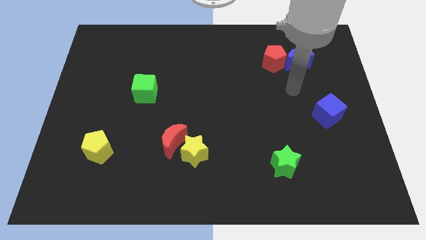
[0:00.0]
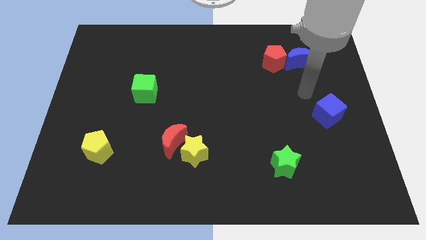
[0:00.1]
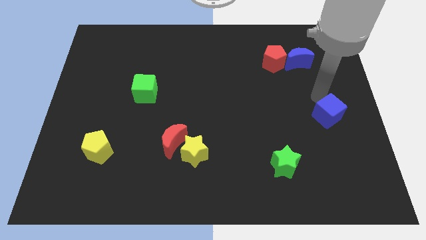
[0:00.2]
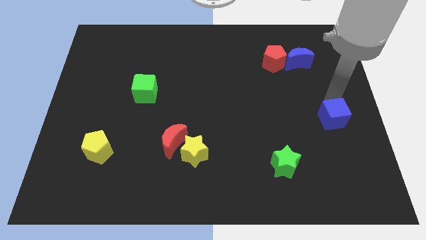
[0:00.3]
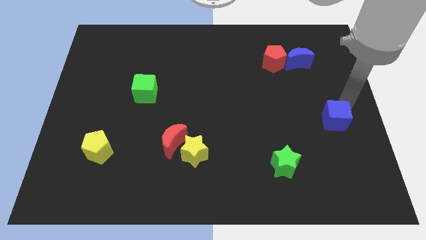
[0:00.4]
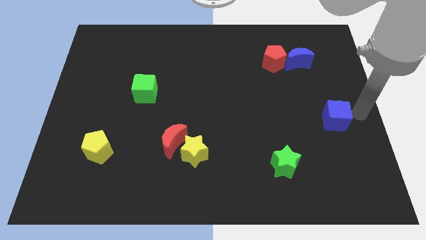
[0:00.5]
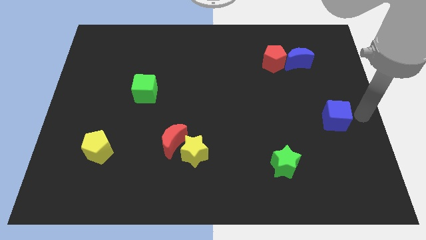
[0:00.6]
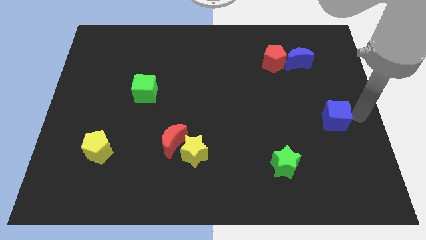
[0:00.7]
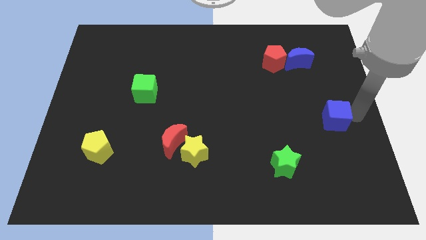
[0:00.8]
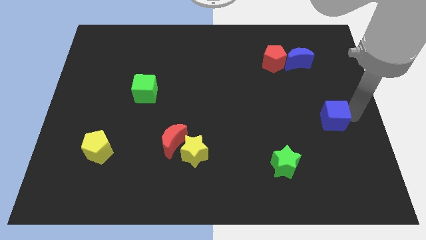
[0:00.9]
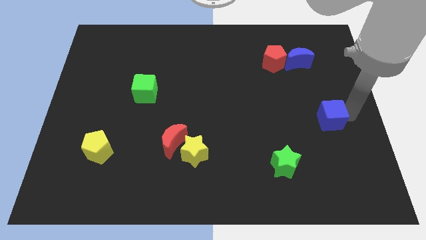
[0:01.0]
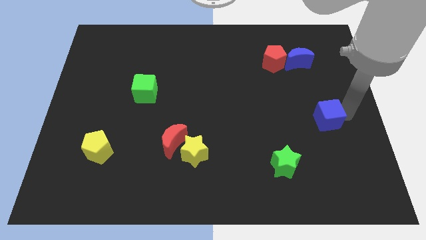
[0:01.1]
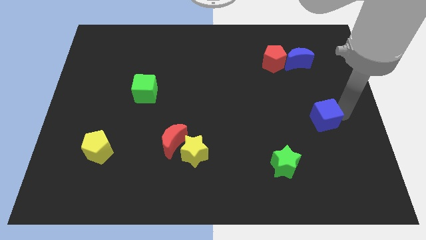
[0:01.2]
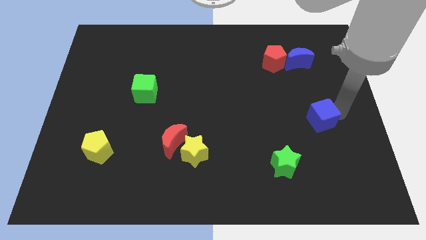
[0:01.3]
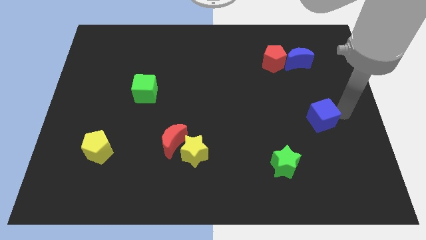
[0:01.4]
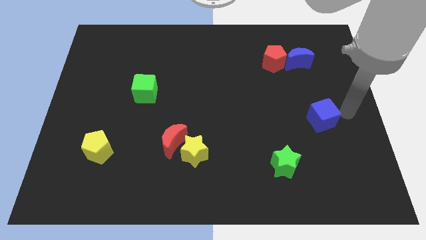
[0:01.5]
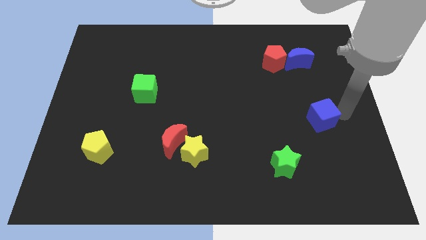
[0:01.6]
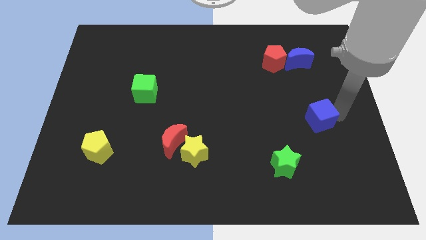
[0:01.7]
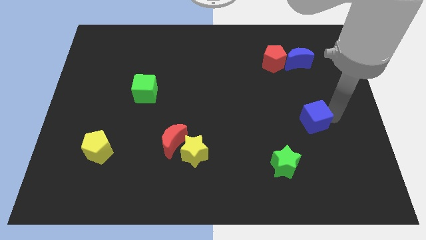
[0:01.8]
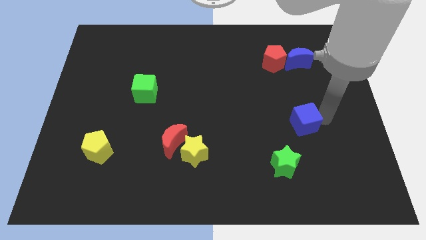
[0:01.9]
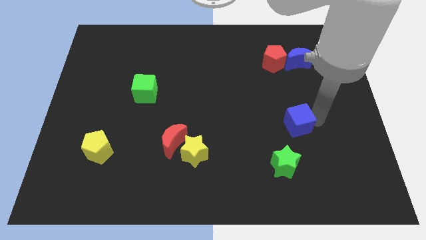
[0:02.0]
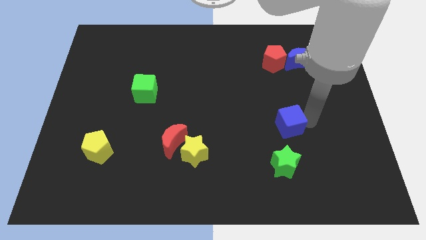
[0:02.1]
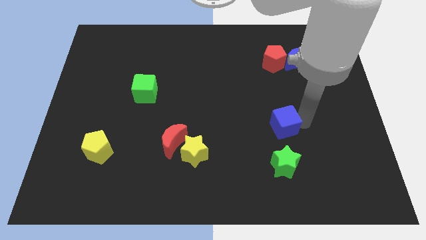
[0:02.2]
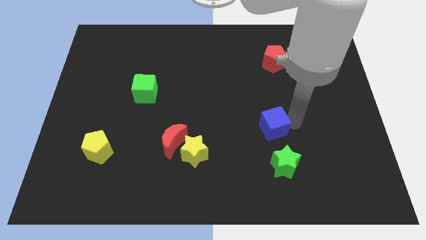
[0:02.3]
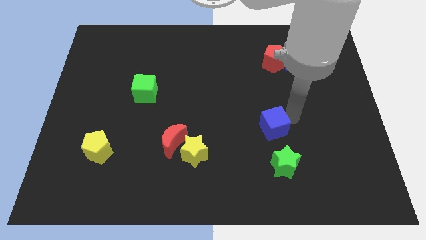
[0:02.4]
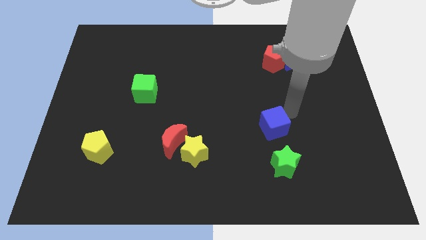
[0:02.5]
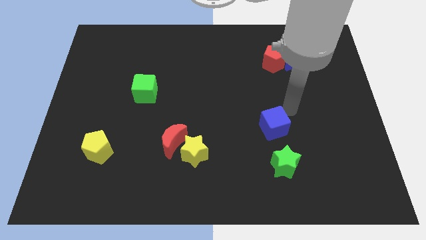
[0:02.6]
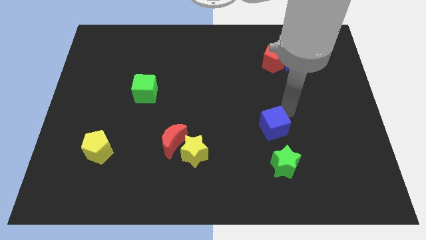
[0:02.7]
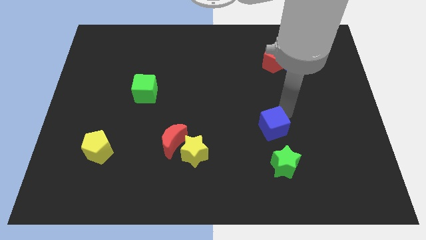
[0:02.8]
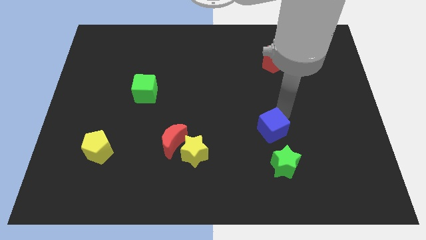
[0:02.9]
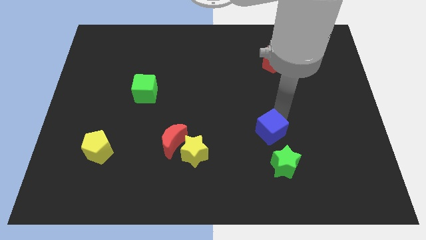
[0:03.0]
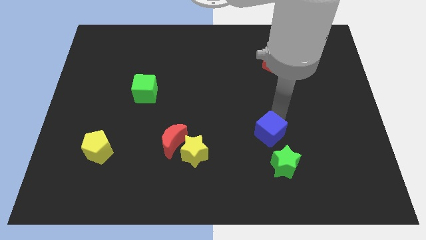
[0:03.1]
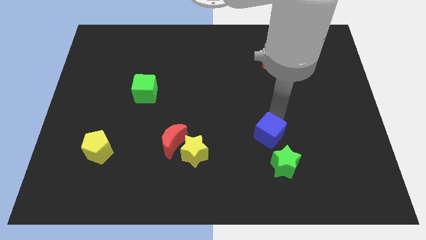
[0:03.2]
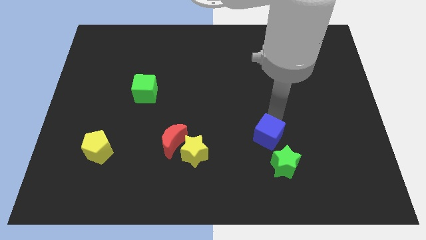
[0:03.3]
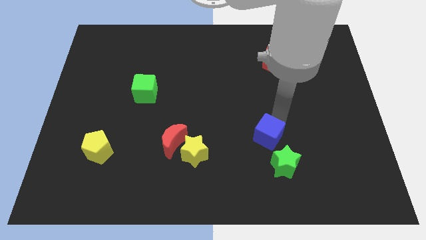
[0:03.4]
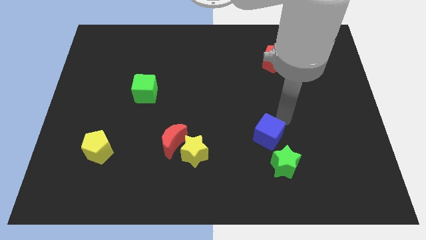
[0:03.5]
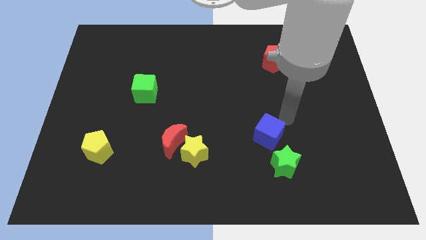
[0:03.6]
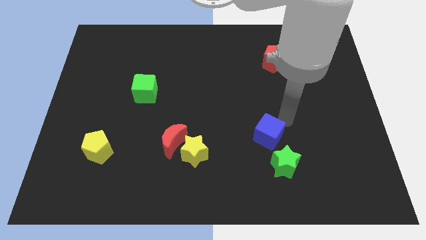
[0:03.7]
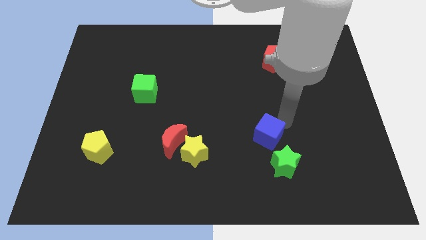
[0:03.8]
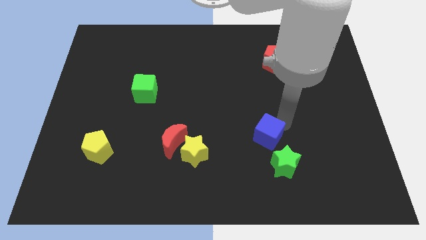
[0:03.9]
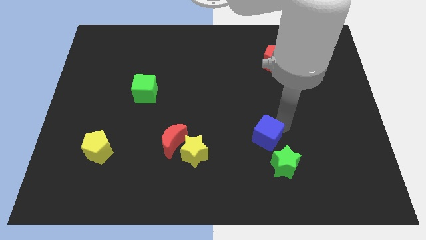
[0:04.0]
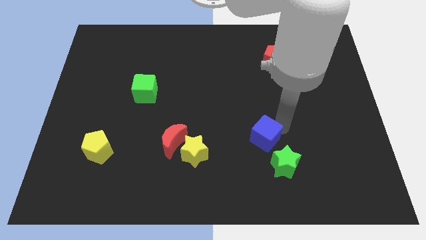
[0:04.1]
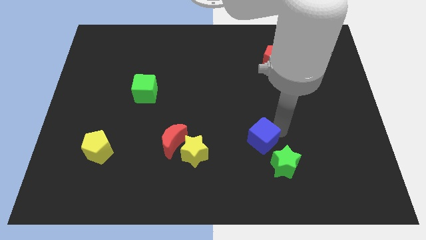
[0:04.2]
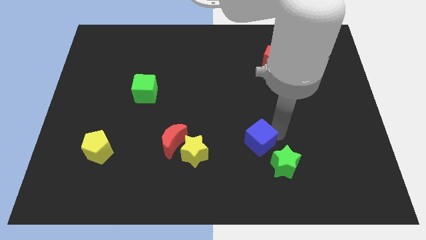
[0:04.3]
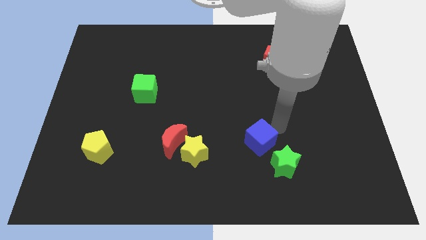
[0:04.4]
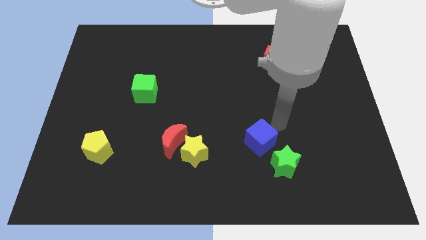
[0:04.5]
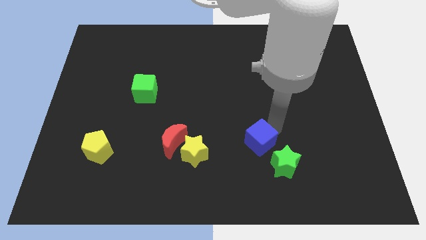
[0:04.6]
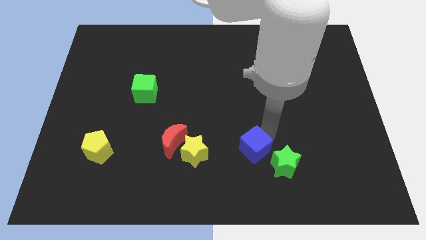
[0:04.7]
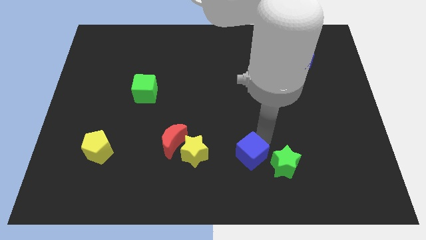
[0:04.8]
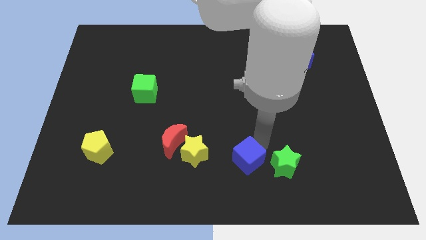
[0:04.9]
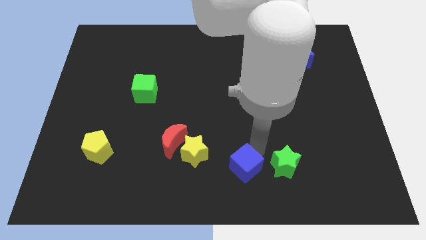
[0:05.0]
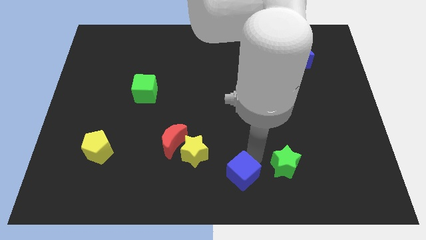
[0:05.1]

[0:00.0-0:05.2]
push the blue cube to the bottom right of the yellow star

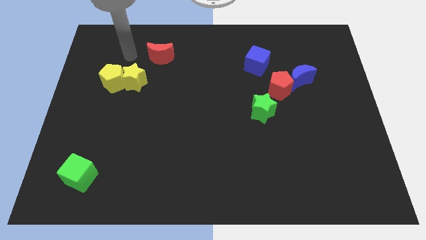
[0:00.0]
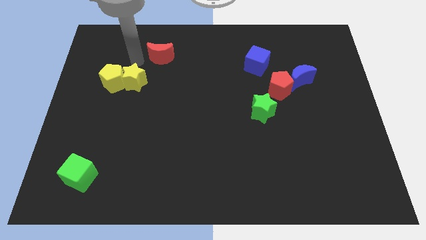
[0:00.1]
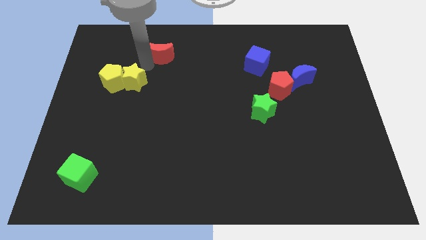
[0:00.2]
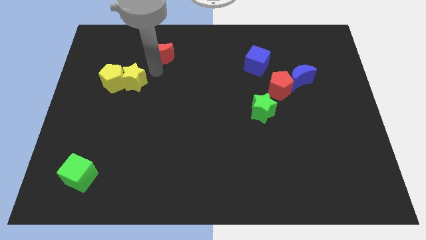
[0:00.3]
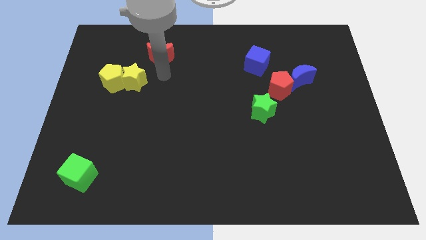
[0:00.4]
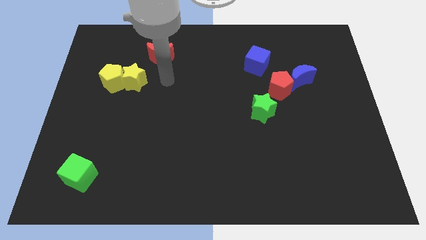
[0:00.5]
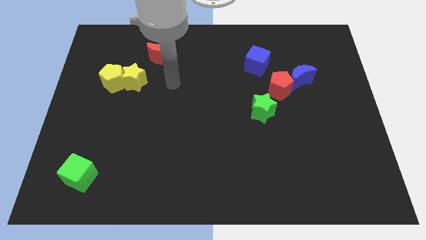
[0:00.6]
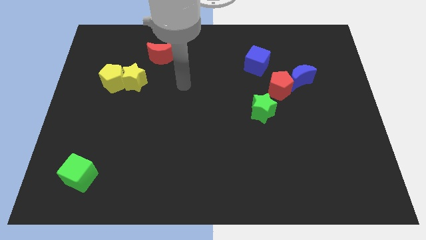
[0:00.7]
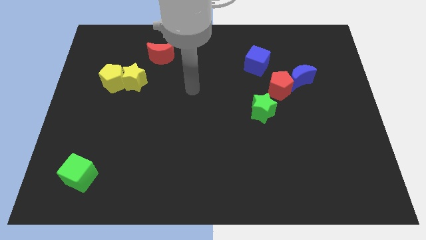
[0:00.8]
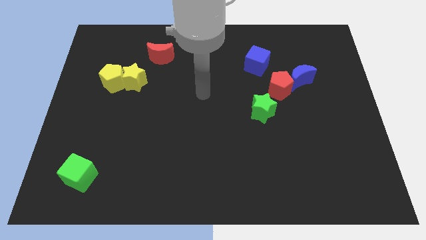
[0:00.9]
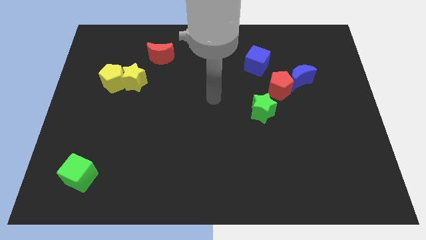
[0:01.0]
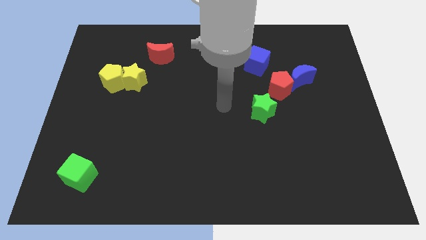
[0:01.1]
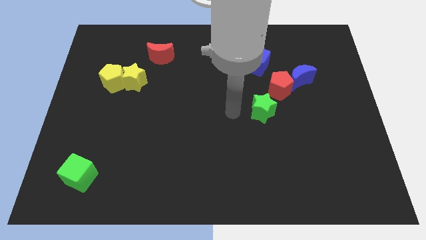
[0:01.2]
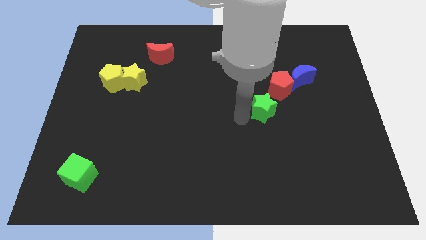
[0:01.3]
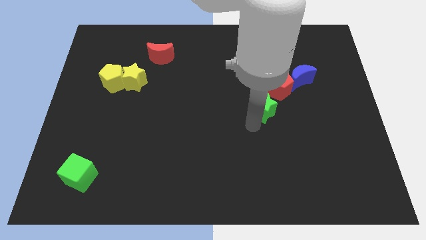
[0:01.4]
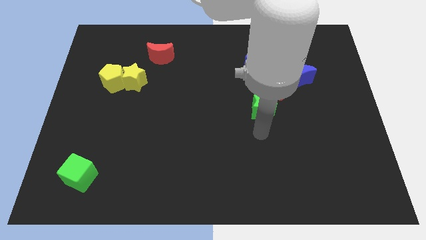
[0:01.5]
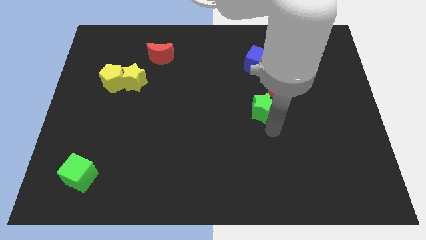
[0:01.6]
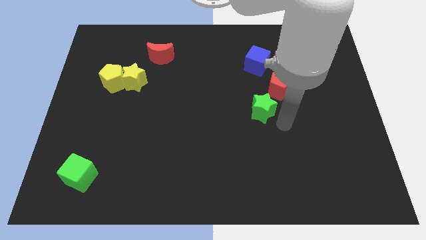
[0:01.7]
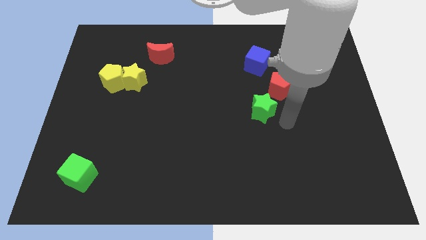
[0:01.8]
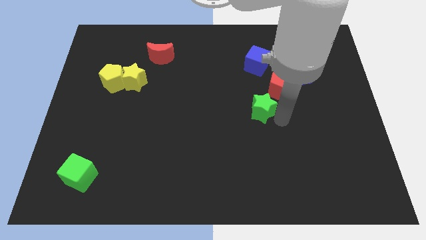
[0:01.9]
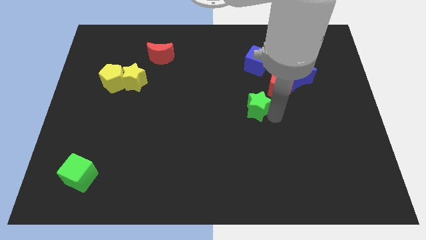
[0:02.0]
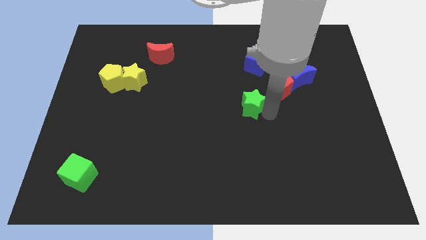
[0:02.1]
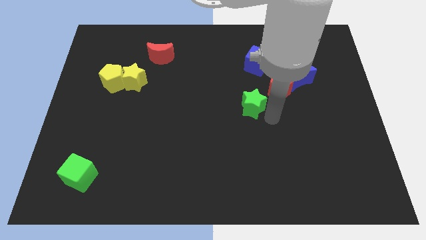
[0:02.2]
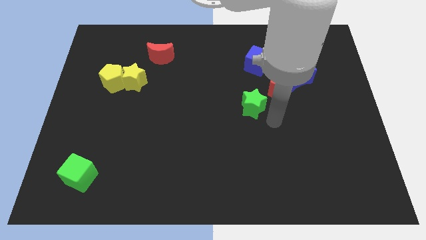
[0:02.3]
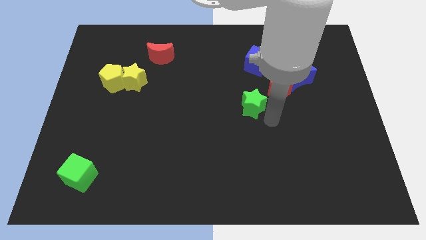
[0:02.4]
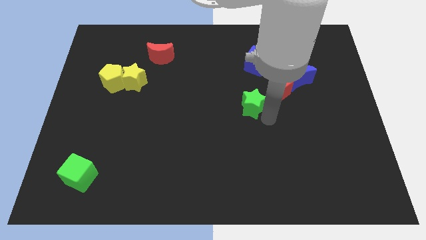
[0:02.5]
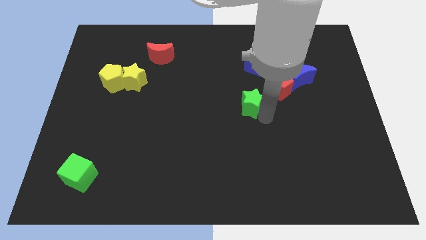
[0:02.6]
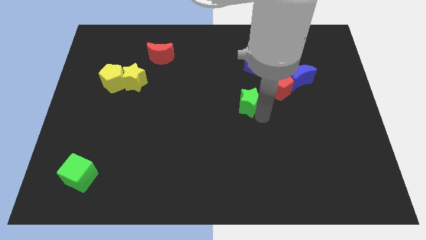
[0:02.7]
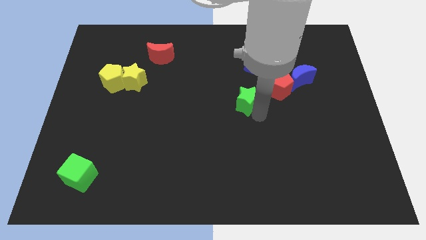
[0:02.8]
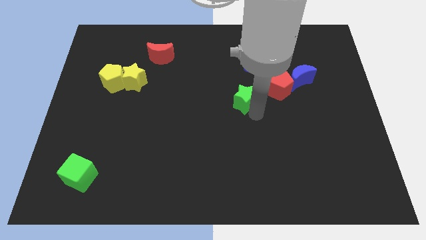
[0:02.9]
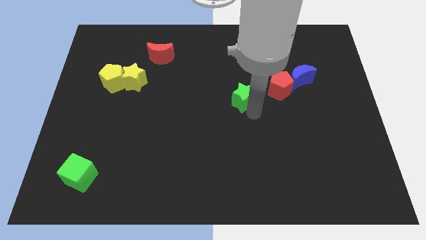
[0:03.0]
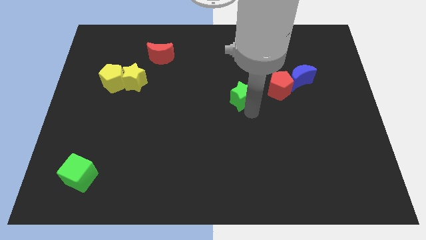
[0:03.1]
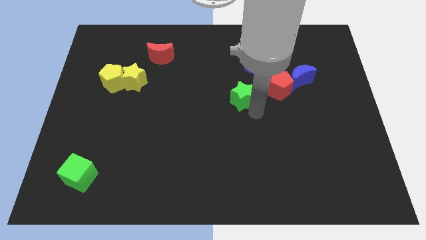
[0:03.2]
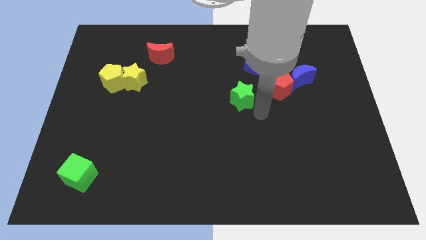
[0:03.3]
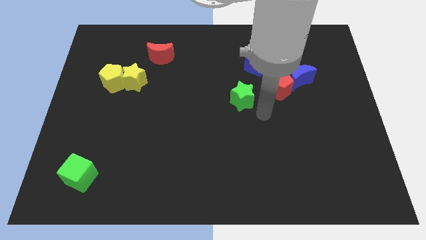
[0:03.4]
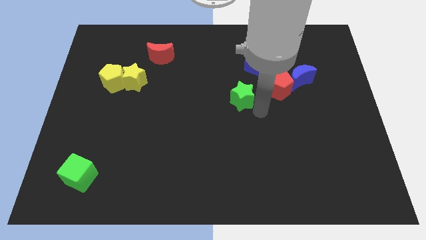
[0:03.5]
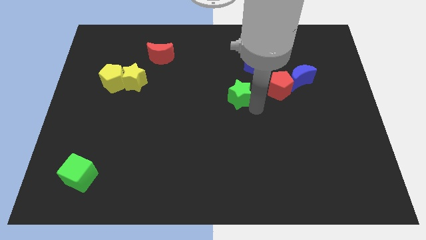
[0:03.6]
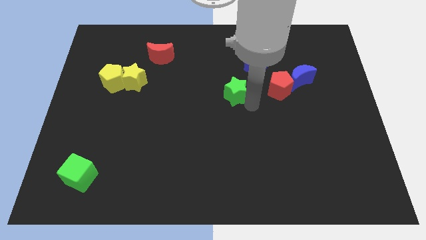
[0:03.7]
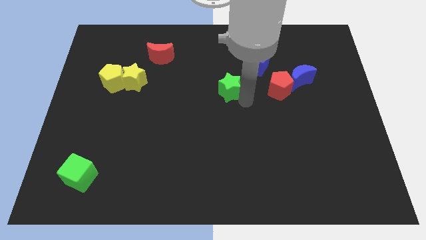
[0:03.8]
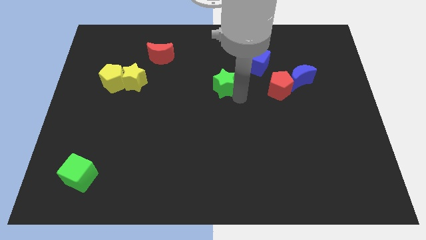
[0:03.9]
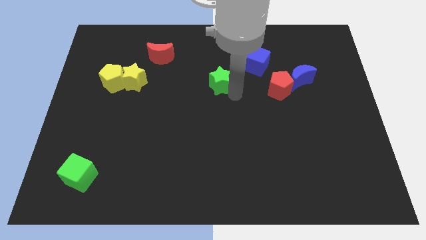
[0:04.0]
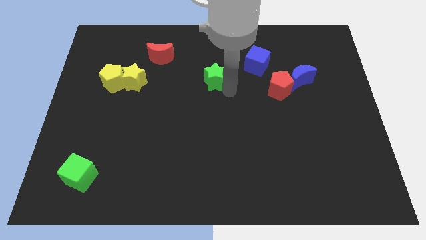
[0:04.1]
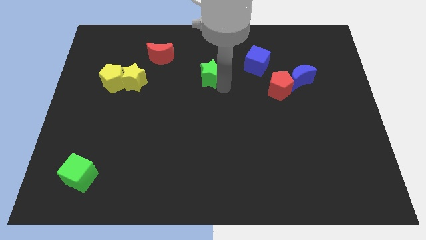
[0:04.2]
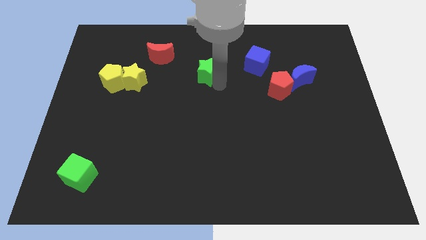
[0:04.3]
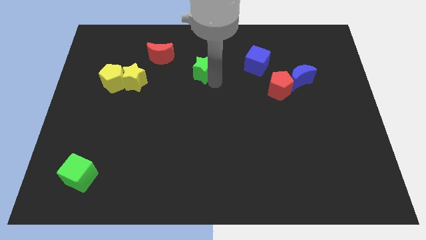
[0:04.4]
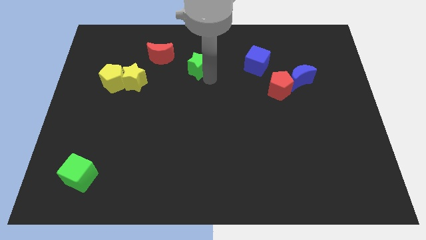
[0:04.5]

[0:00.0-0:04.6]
move the green star right of the red moon
